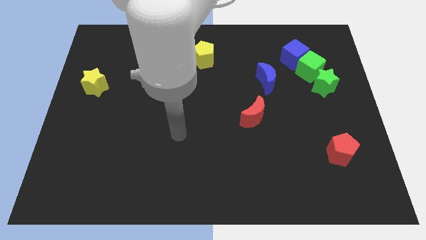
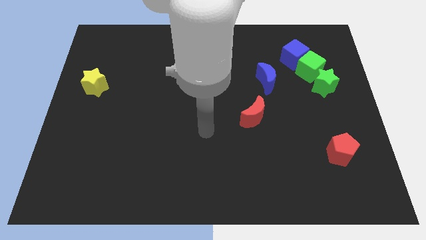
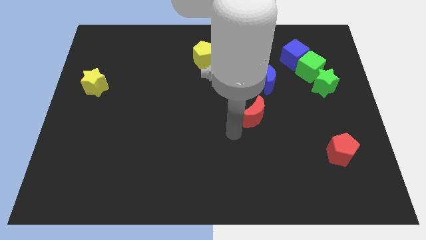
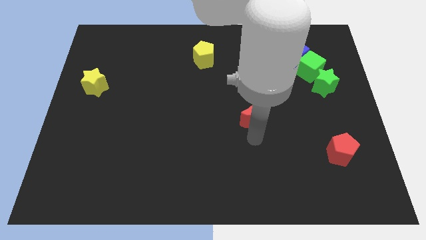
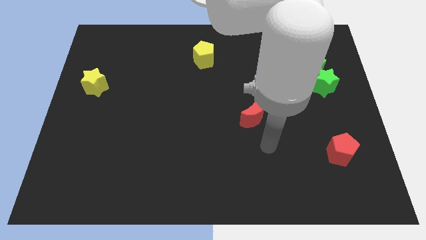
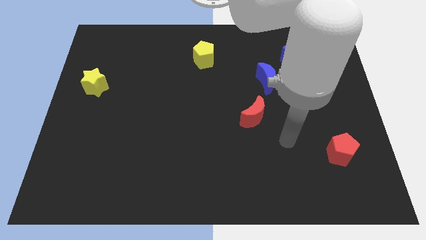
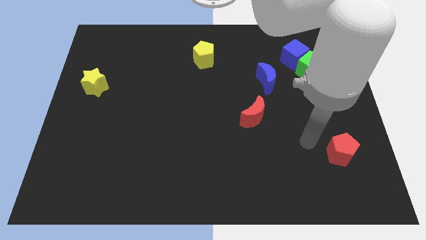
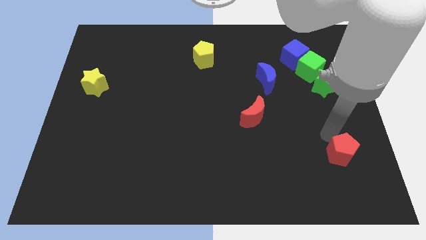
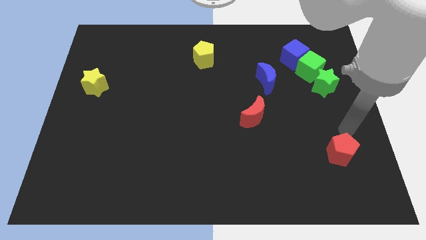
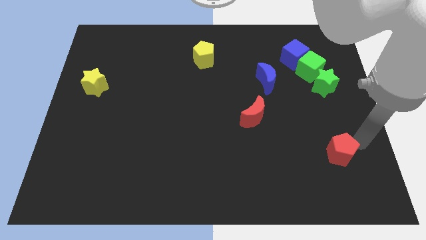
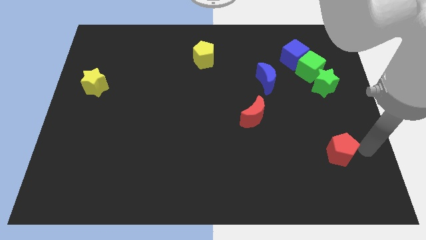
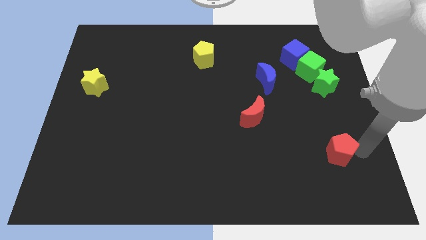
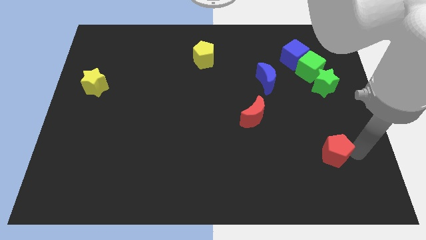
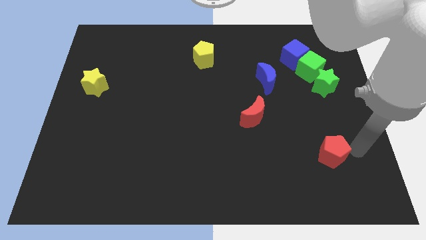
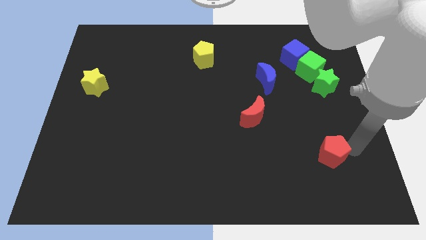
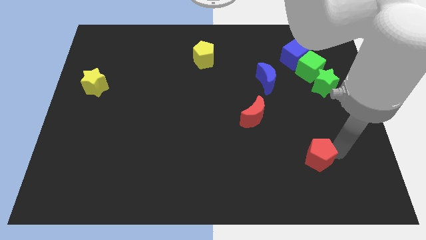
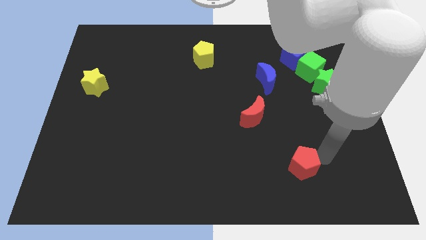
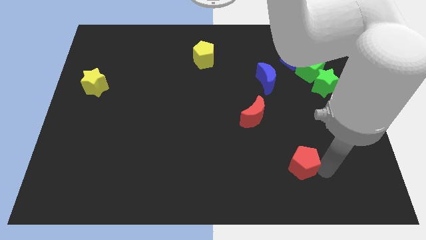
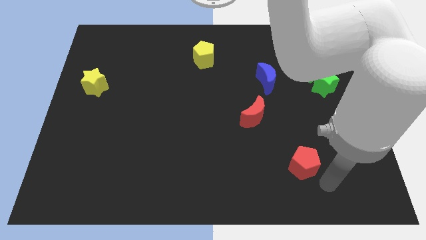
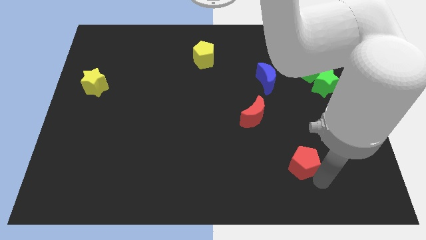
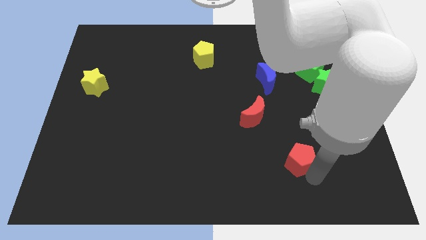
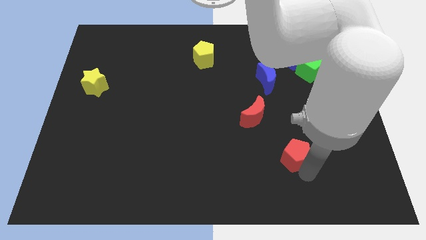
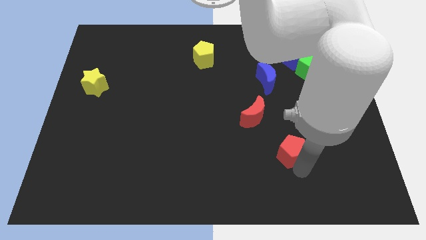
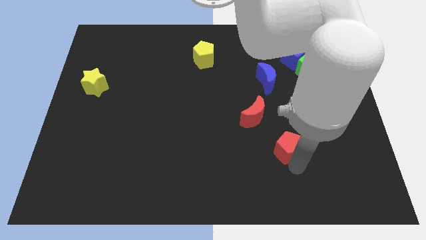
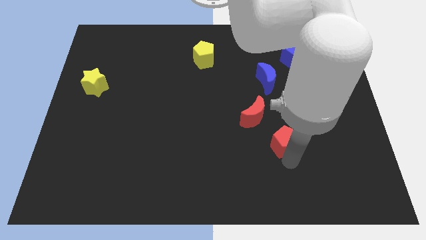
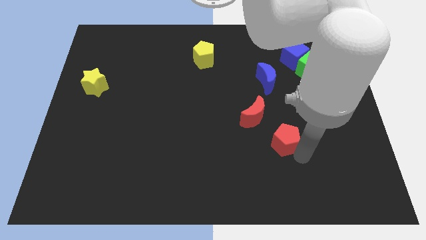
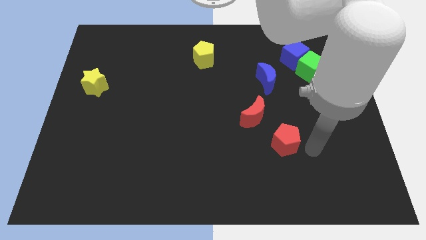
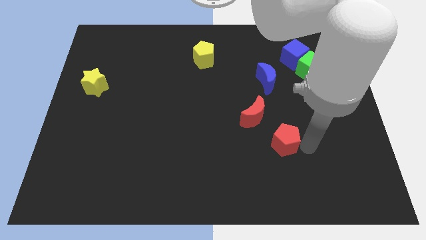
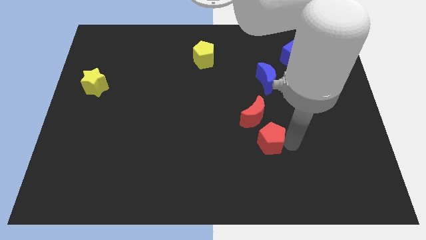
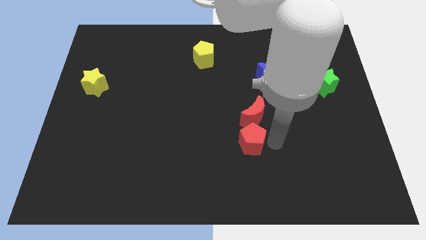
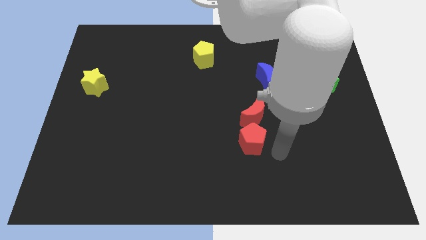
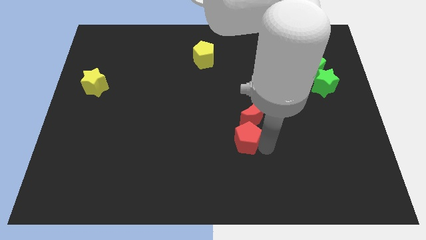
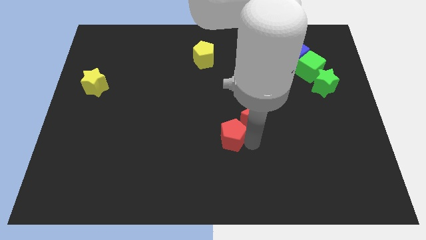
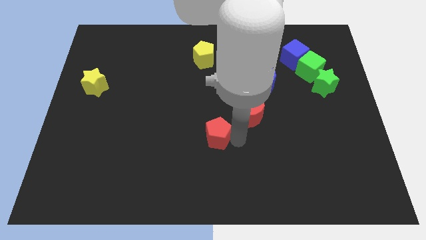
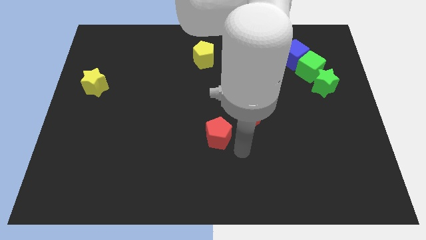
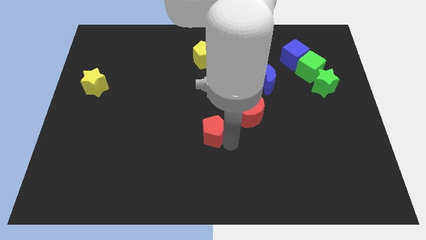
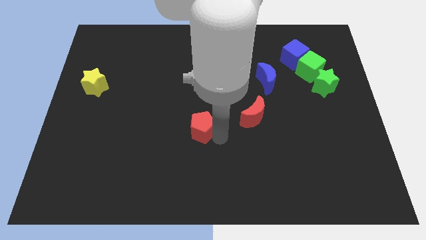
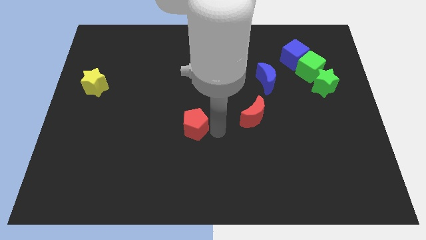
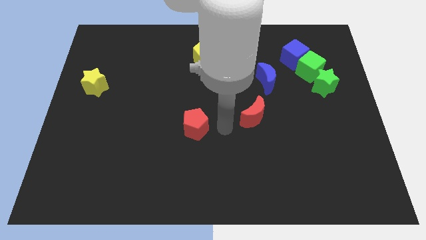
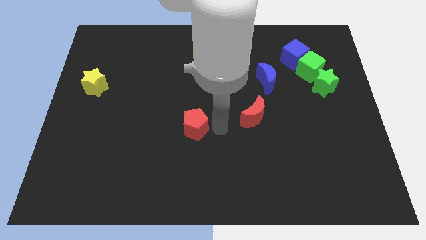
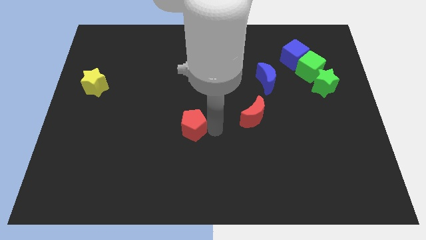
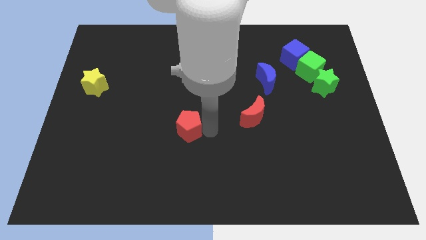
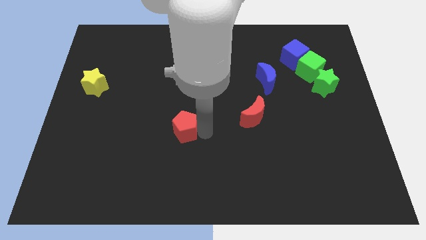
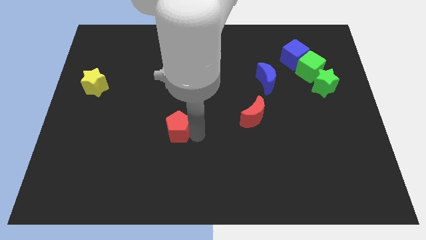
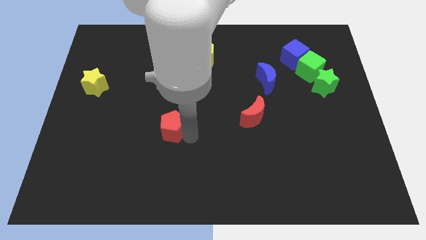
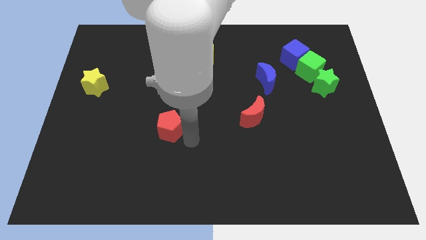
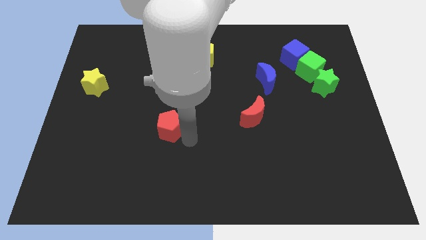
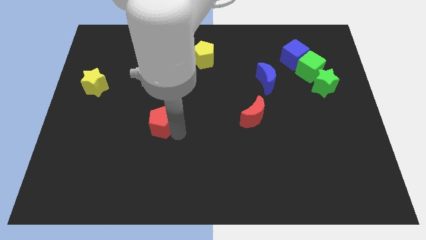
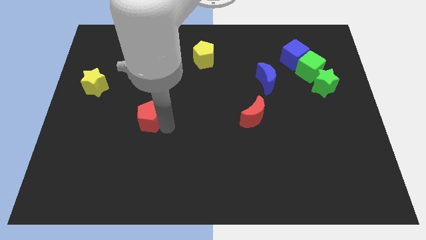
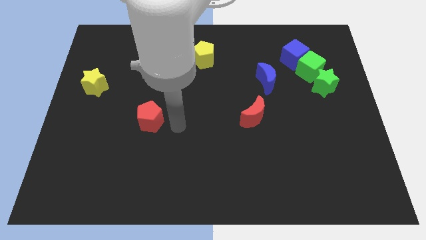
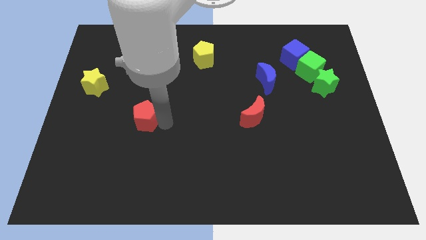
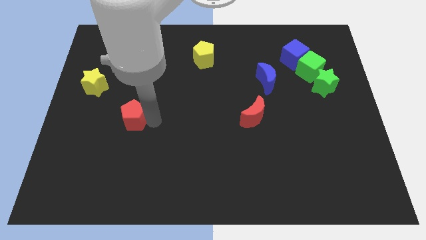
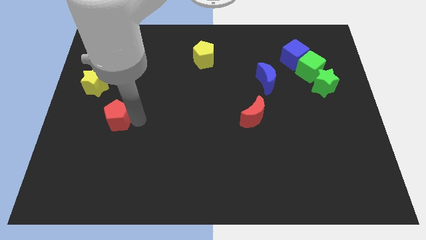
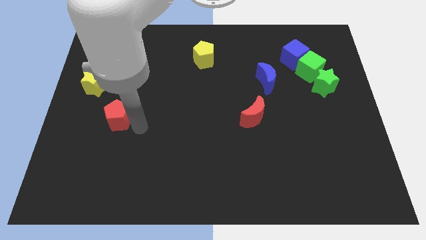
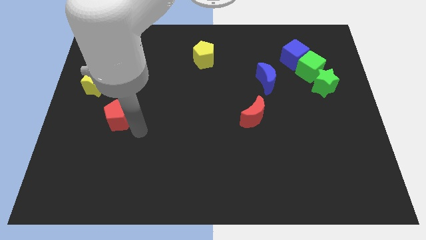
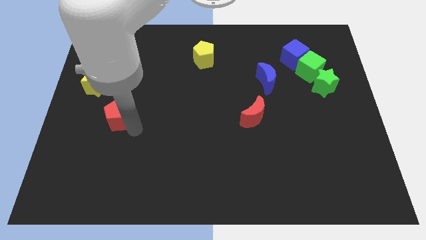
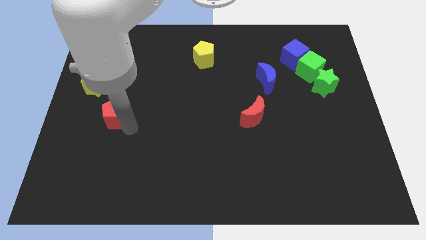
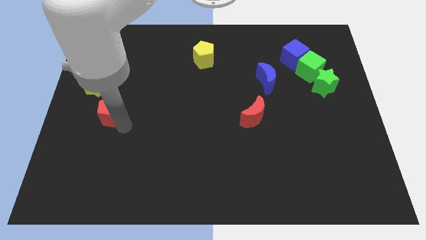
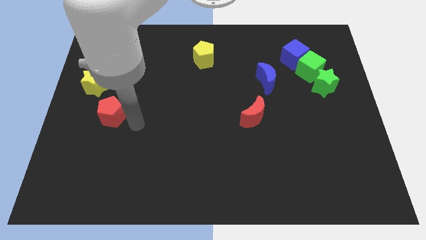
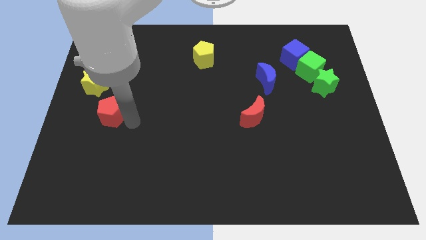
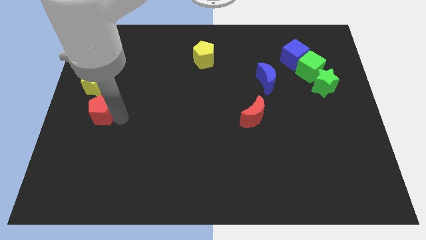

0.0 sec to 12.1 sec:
push the red pentagon to the center left

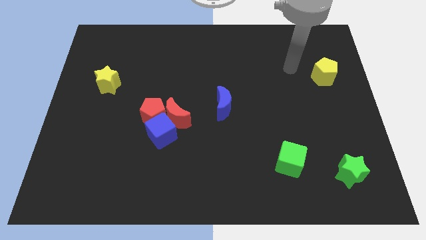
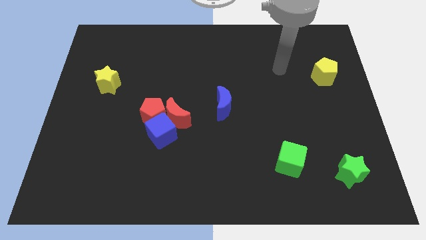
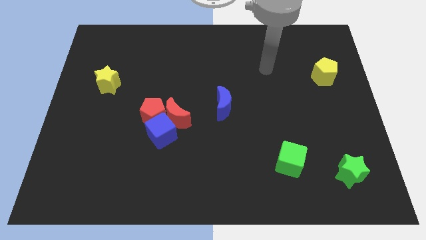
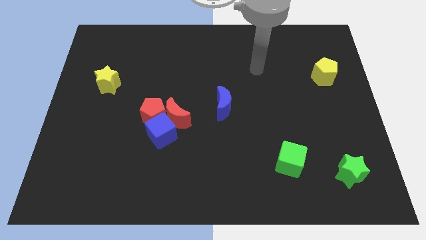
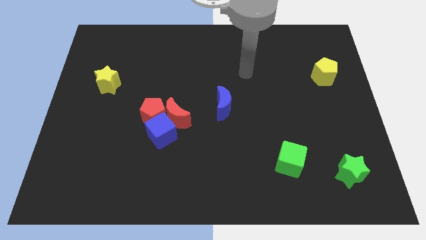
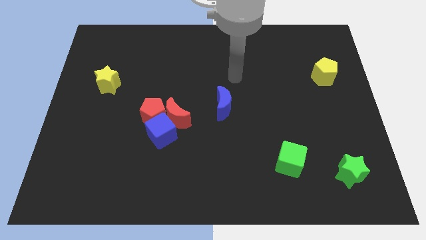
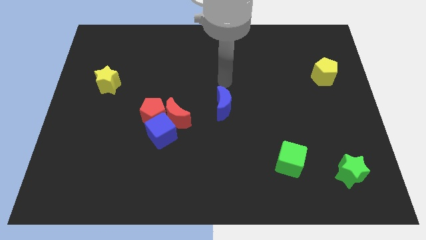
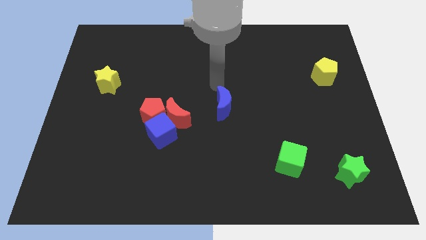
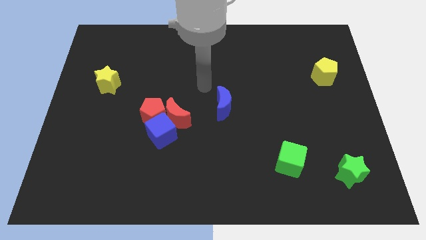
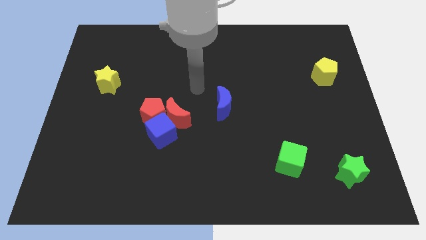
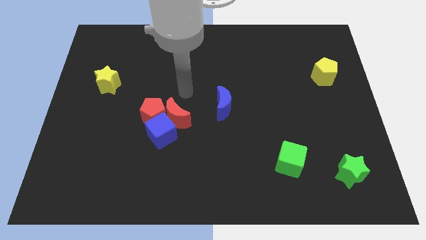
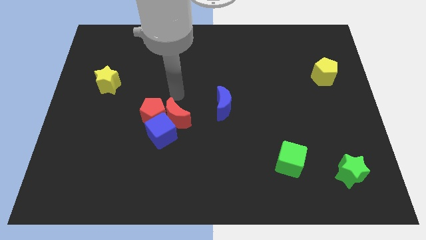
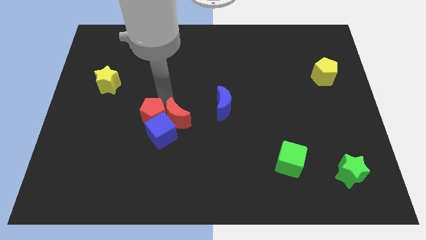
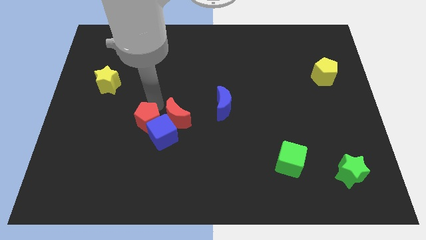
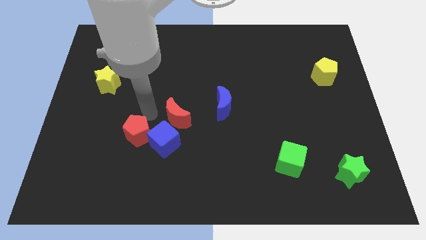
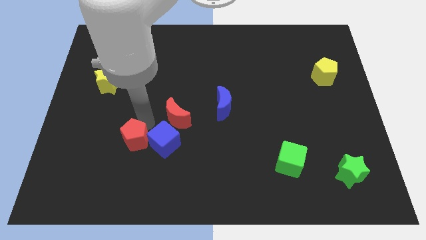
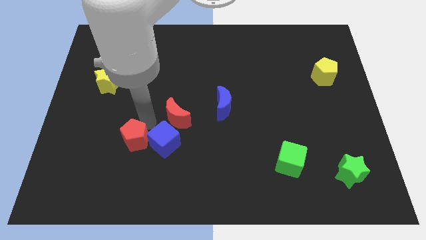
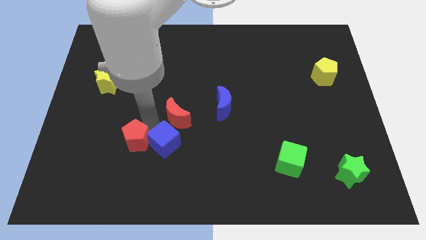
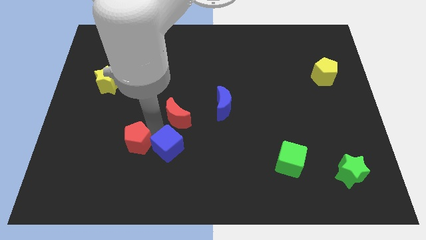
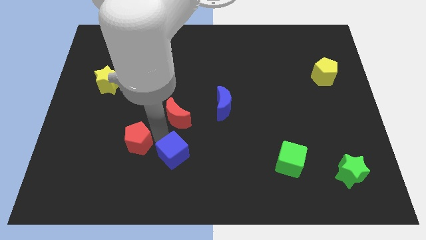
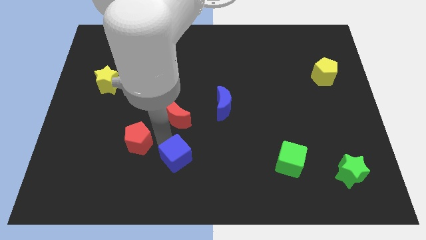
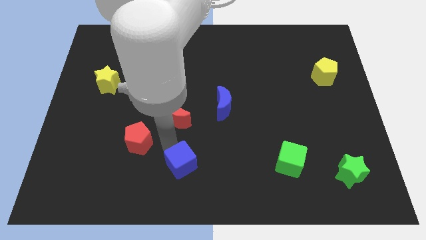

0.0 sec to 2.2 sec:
slide the blue cube to the bottom
